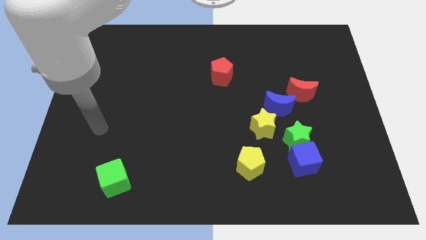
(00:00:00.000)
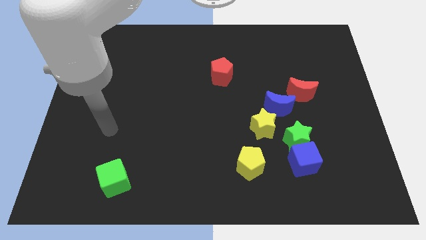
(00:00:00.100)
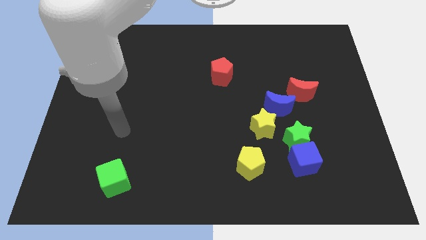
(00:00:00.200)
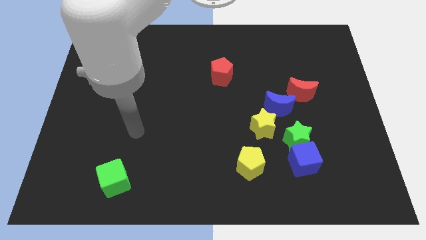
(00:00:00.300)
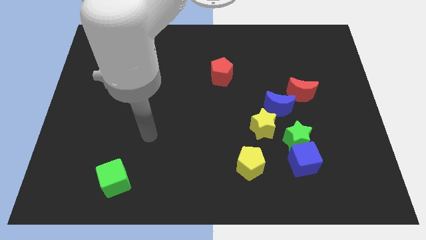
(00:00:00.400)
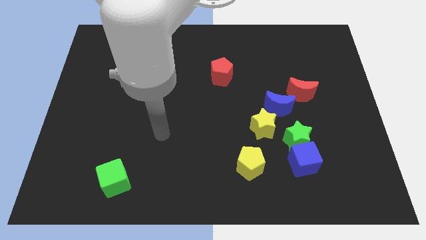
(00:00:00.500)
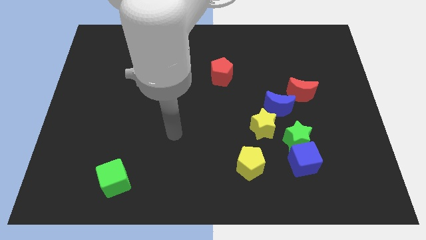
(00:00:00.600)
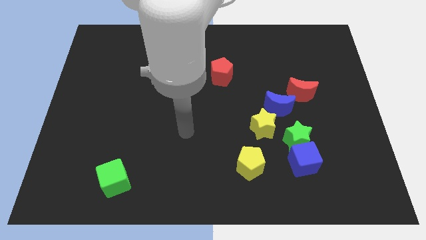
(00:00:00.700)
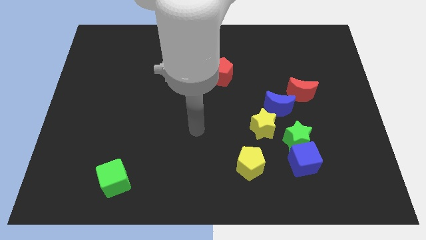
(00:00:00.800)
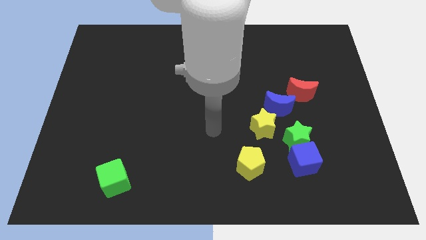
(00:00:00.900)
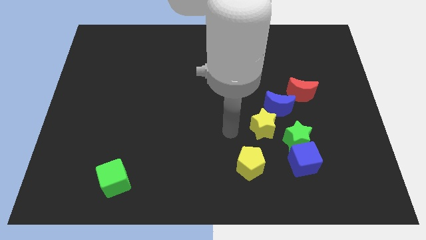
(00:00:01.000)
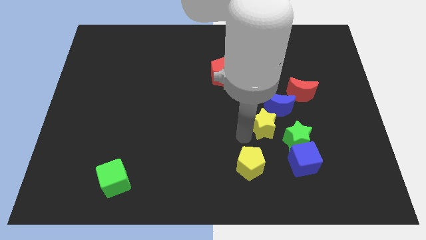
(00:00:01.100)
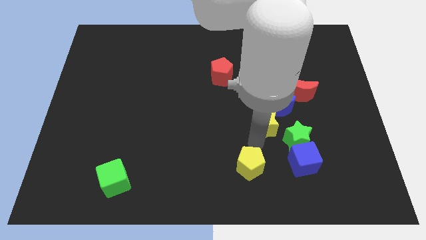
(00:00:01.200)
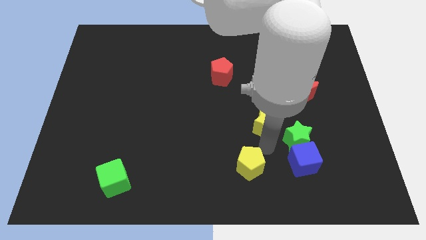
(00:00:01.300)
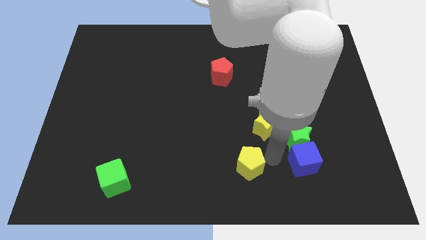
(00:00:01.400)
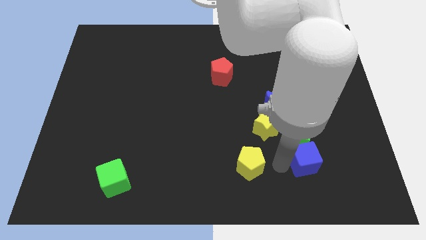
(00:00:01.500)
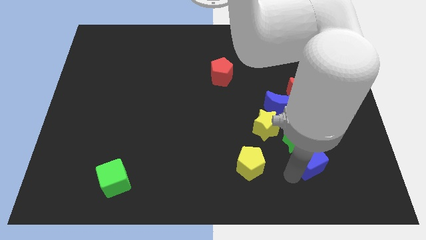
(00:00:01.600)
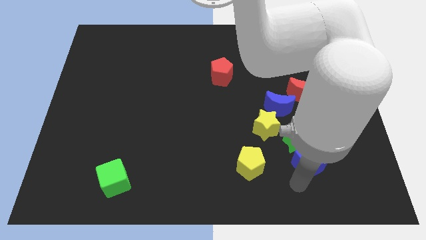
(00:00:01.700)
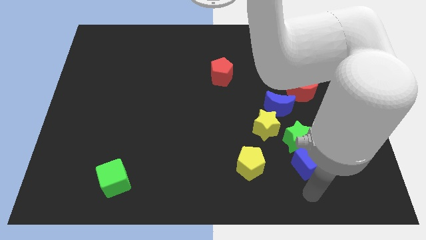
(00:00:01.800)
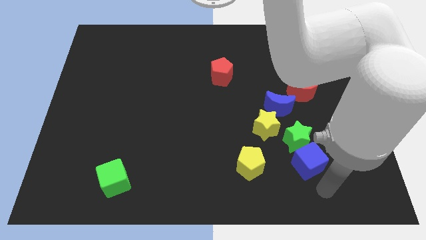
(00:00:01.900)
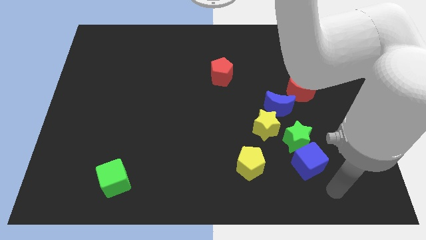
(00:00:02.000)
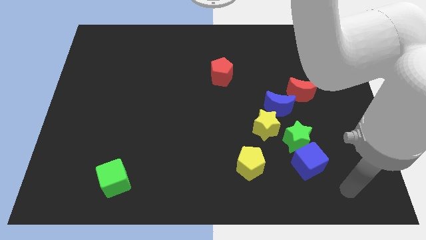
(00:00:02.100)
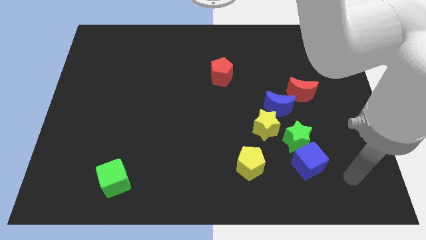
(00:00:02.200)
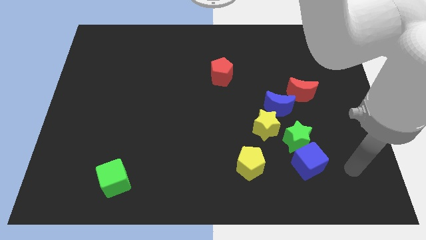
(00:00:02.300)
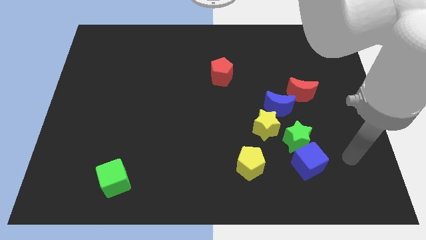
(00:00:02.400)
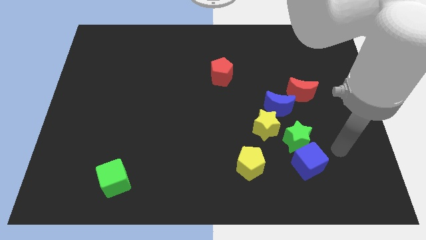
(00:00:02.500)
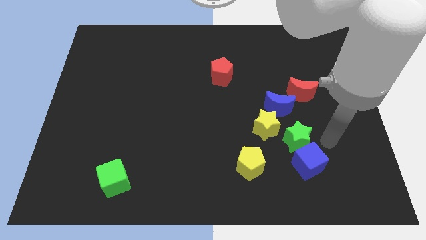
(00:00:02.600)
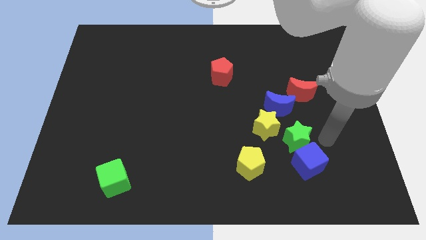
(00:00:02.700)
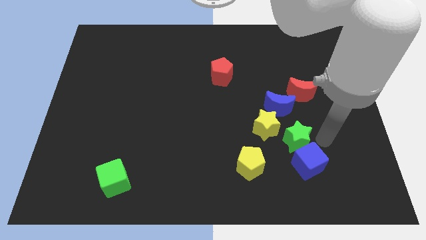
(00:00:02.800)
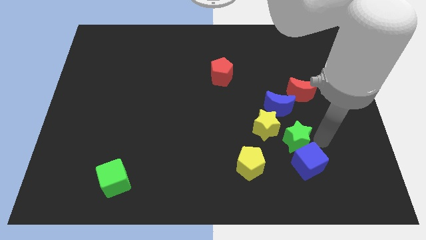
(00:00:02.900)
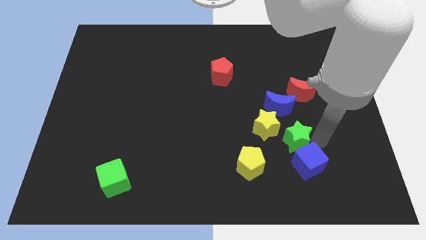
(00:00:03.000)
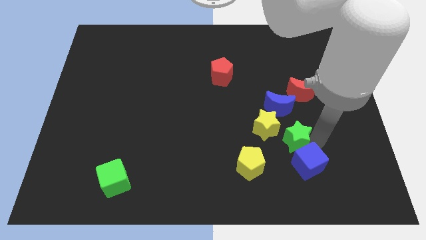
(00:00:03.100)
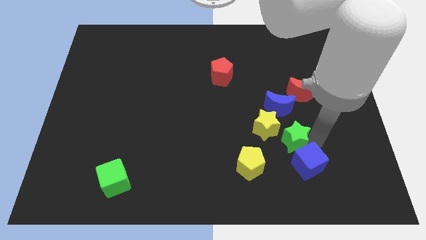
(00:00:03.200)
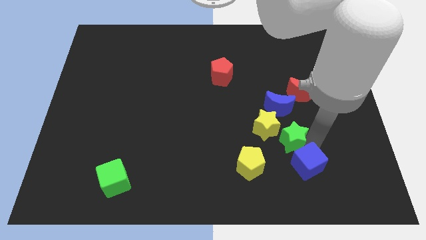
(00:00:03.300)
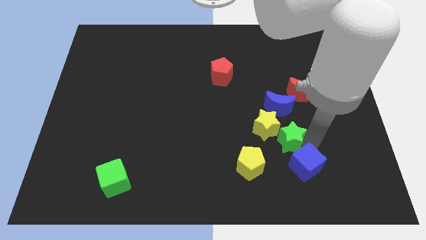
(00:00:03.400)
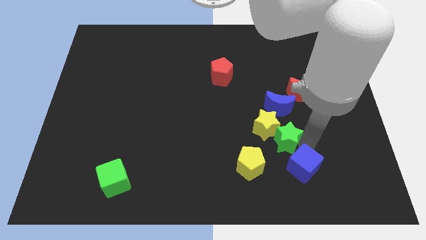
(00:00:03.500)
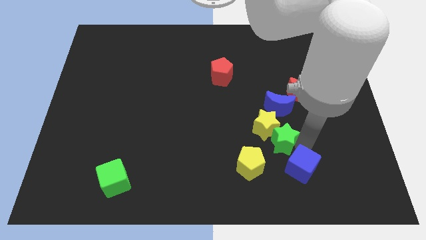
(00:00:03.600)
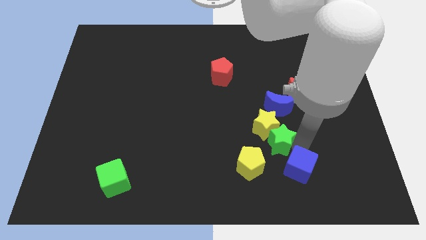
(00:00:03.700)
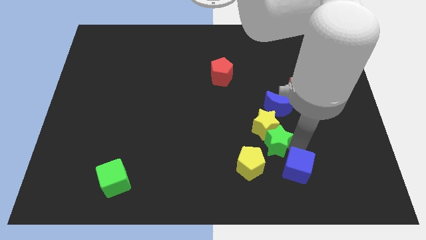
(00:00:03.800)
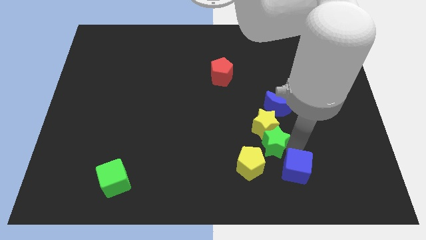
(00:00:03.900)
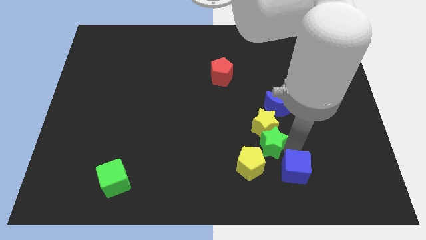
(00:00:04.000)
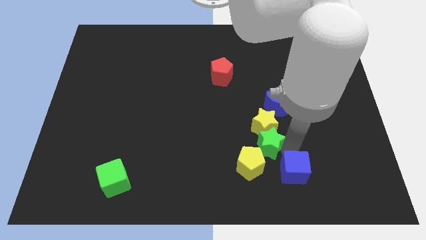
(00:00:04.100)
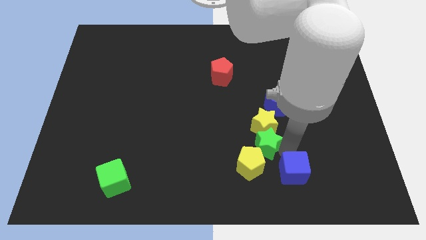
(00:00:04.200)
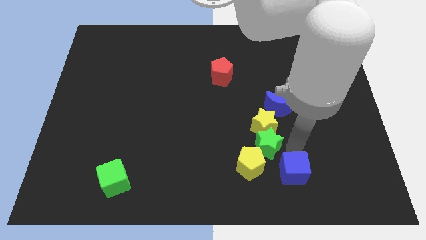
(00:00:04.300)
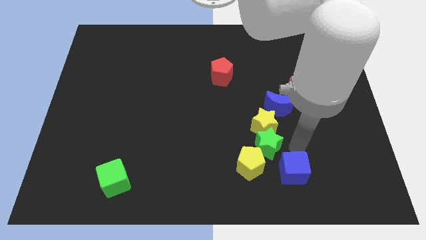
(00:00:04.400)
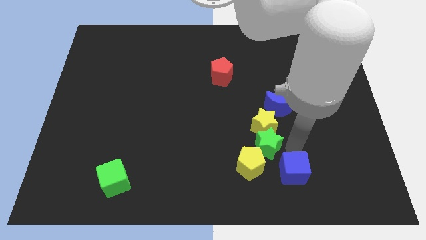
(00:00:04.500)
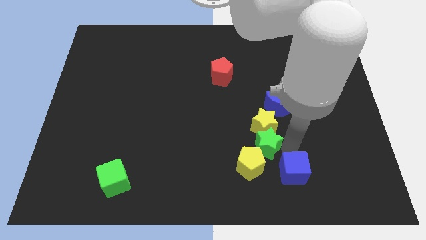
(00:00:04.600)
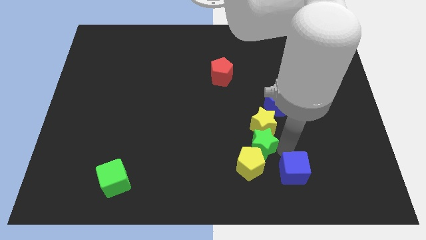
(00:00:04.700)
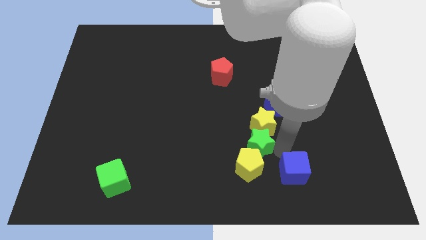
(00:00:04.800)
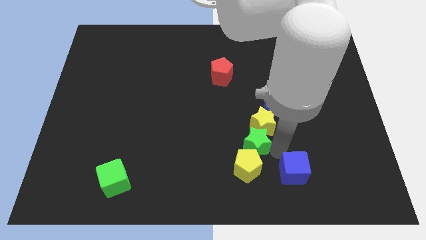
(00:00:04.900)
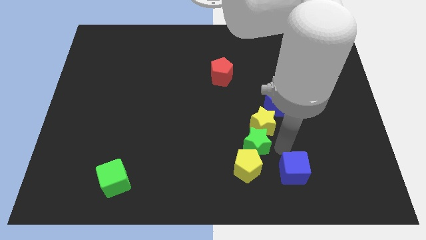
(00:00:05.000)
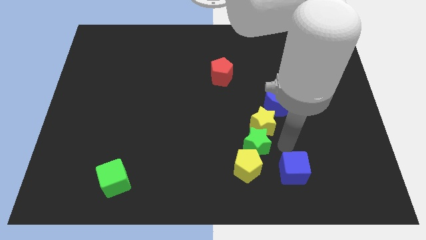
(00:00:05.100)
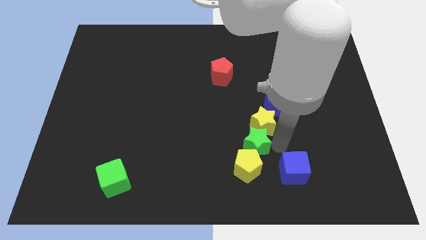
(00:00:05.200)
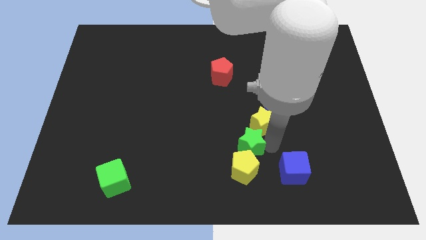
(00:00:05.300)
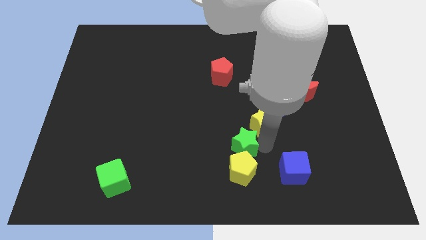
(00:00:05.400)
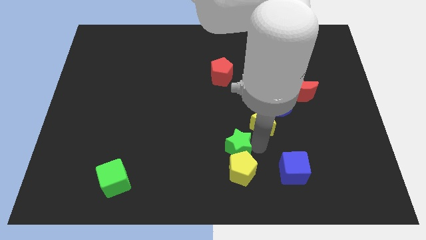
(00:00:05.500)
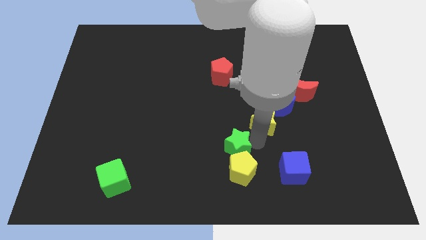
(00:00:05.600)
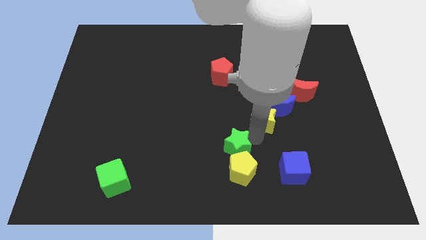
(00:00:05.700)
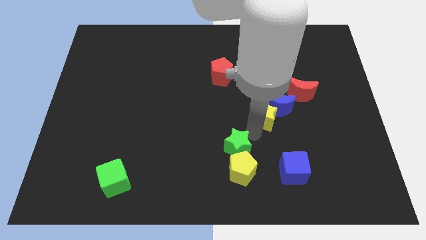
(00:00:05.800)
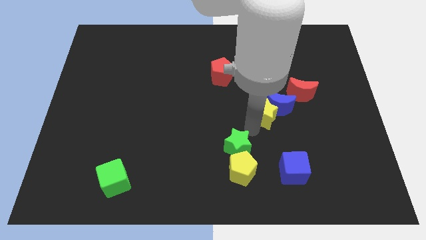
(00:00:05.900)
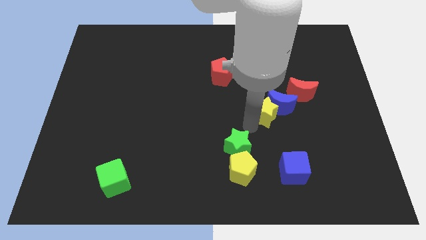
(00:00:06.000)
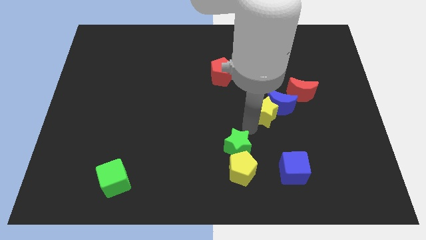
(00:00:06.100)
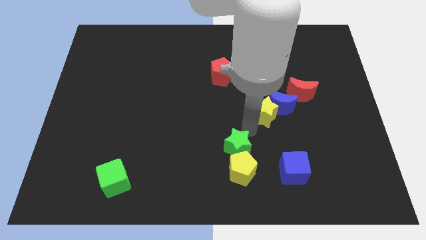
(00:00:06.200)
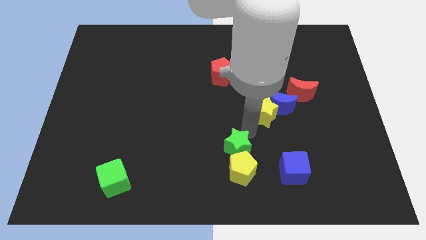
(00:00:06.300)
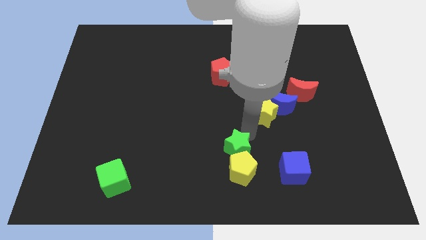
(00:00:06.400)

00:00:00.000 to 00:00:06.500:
slide the green star just left of the blue cube

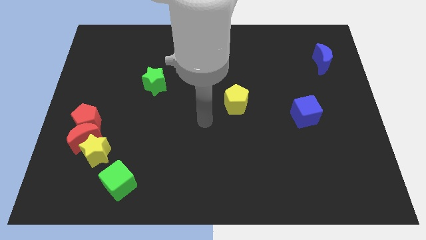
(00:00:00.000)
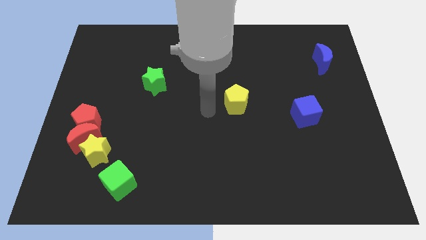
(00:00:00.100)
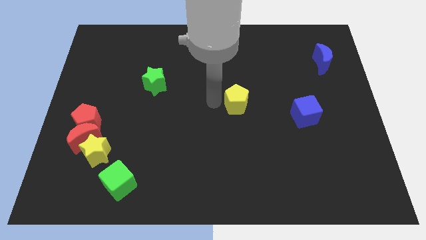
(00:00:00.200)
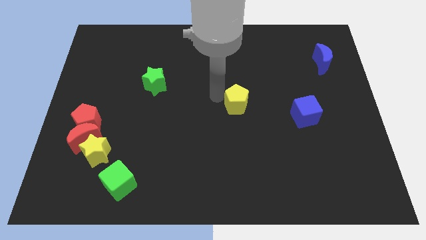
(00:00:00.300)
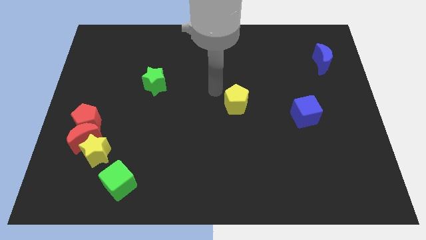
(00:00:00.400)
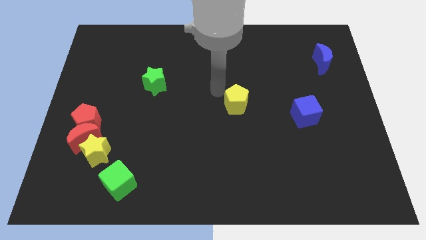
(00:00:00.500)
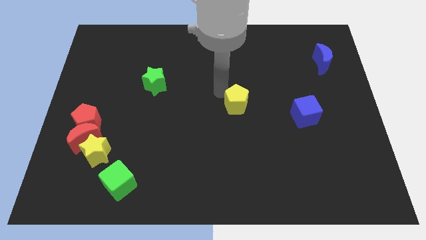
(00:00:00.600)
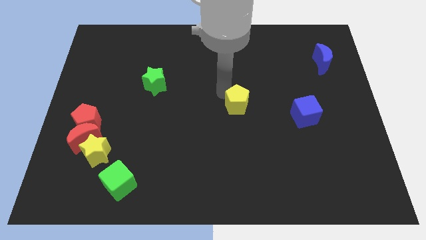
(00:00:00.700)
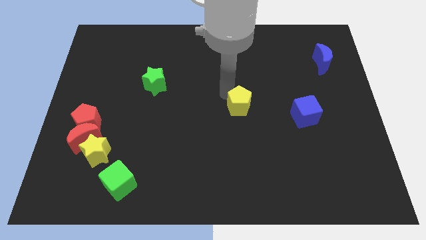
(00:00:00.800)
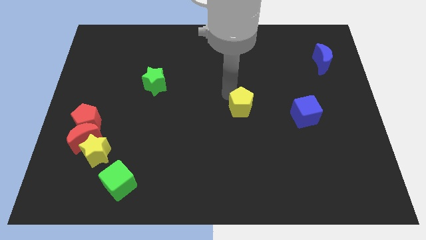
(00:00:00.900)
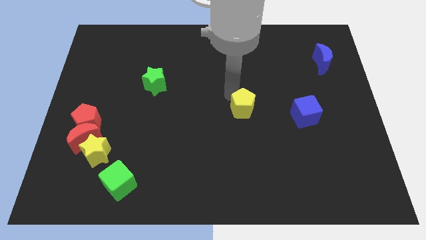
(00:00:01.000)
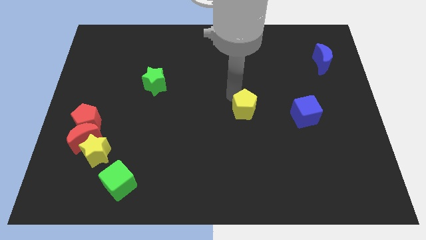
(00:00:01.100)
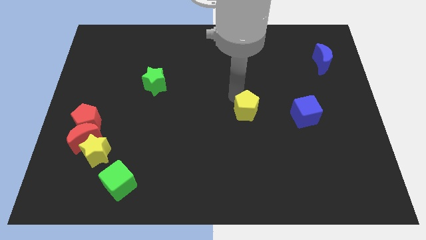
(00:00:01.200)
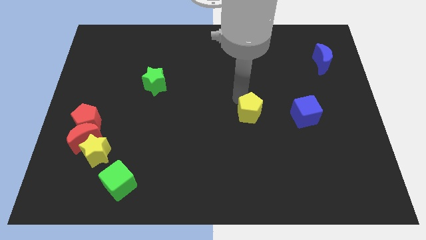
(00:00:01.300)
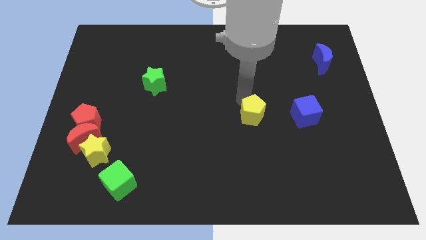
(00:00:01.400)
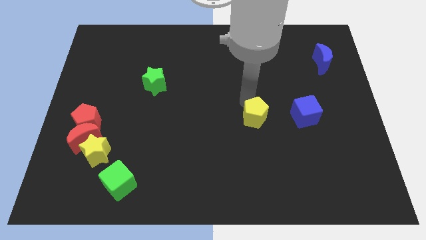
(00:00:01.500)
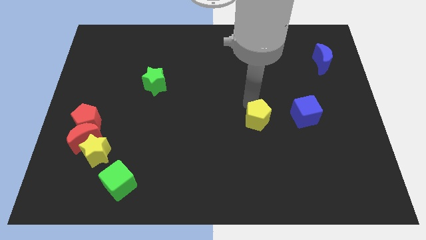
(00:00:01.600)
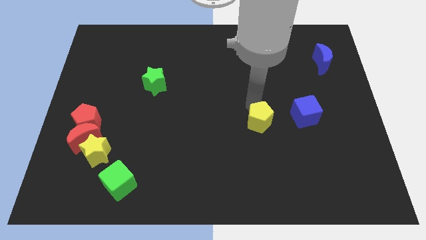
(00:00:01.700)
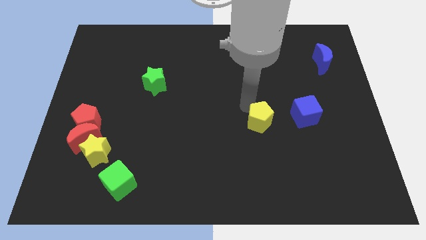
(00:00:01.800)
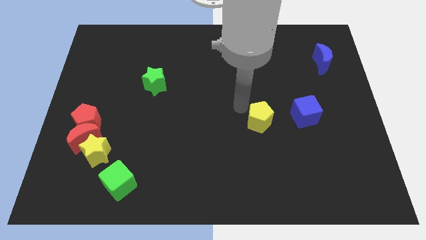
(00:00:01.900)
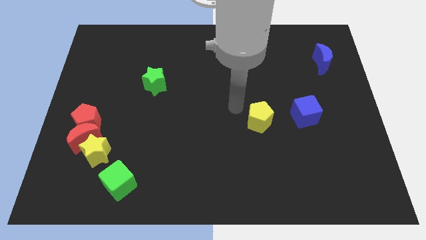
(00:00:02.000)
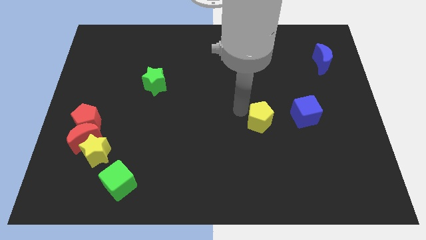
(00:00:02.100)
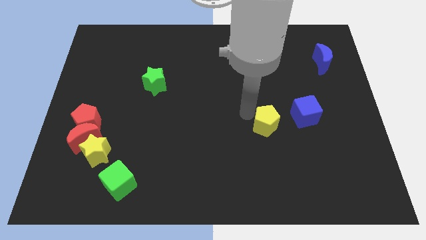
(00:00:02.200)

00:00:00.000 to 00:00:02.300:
push the yellow pentagon diagonally down and to the left of the blue cube
